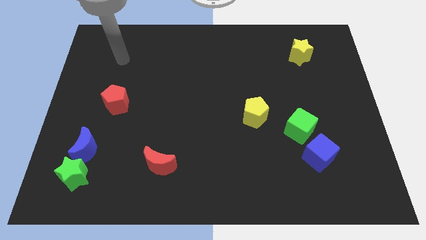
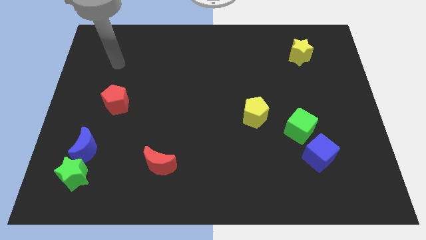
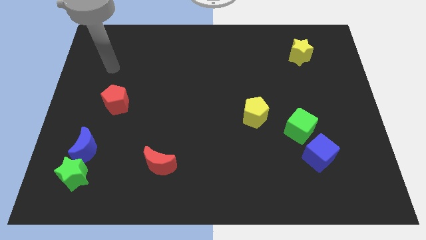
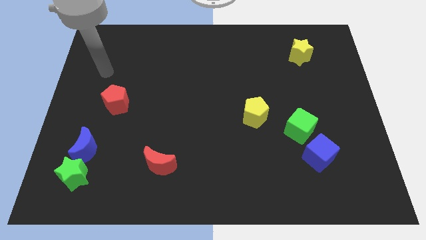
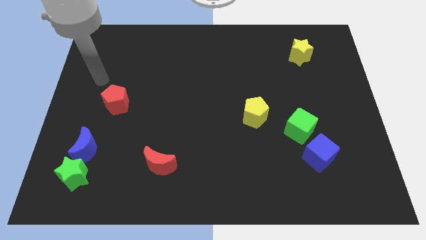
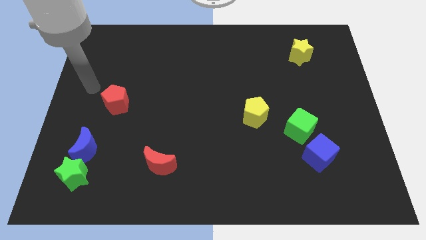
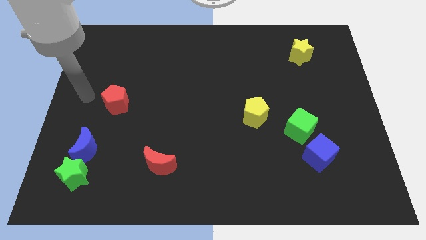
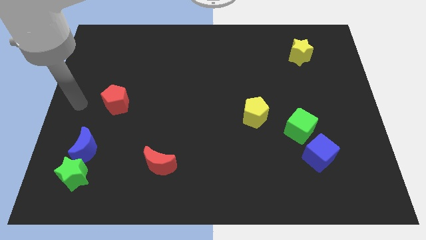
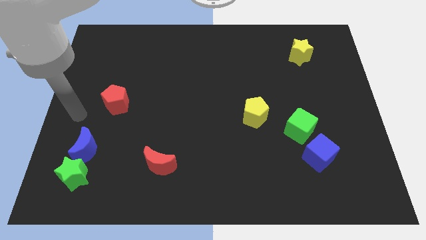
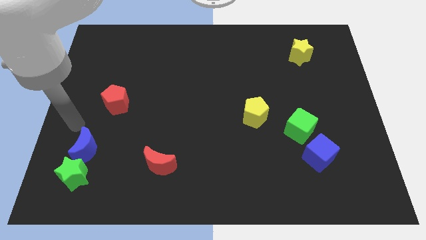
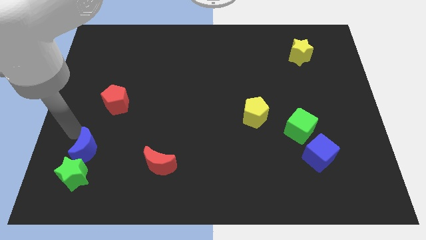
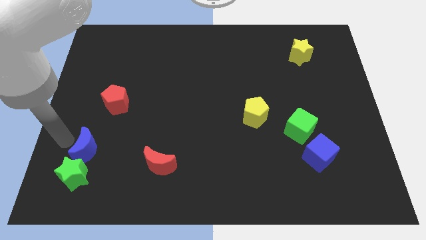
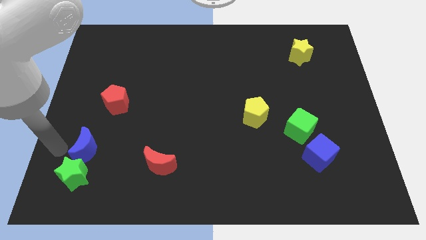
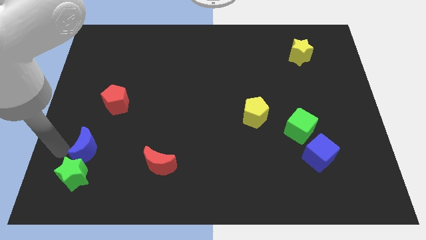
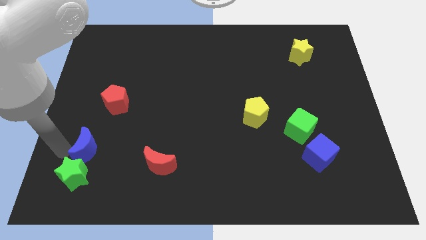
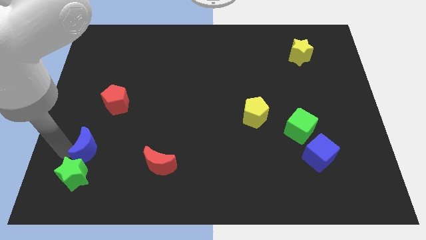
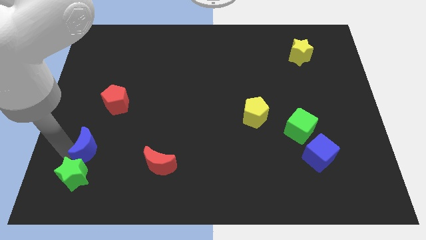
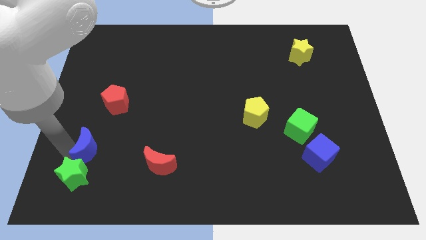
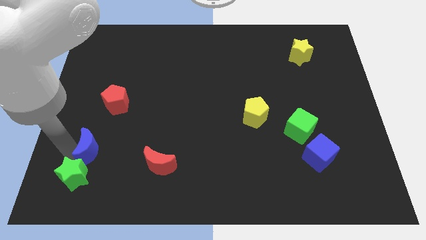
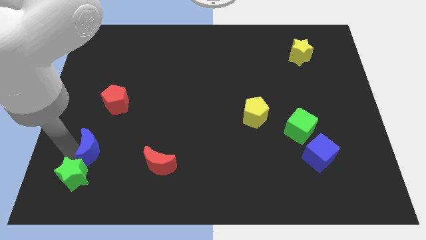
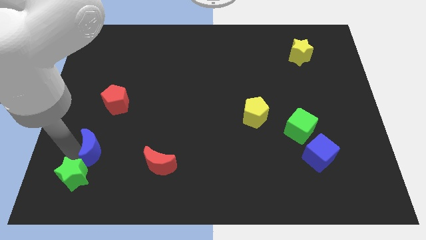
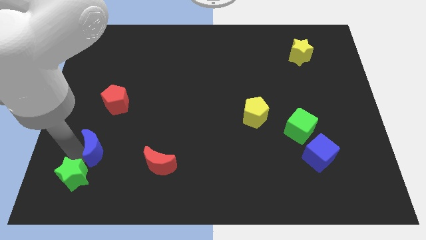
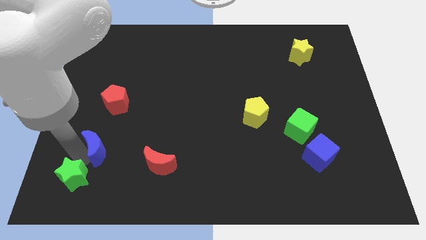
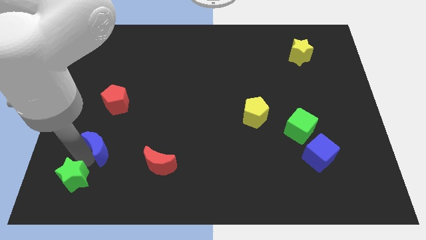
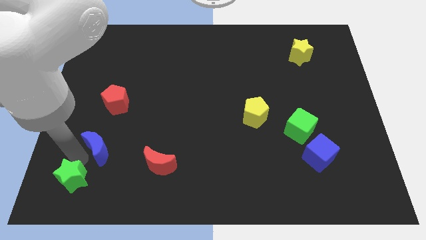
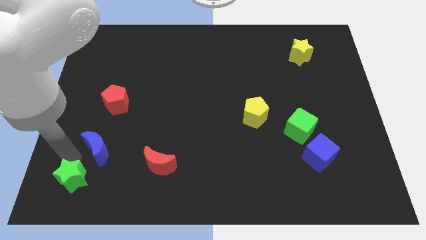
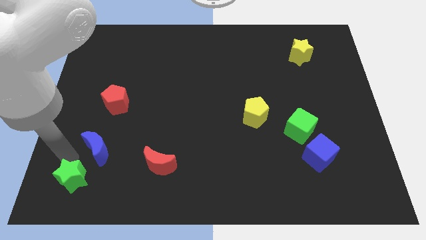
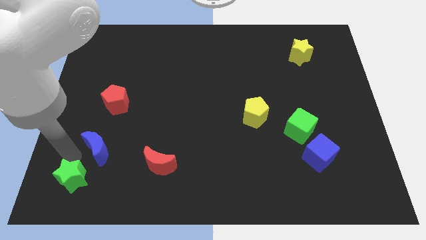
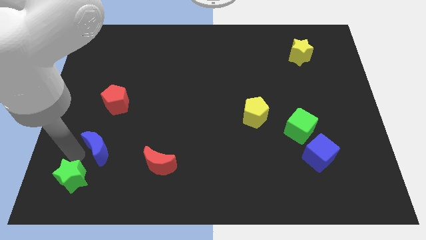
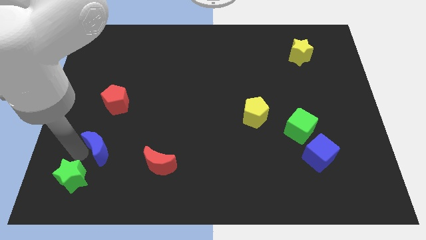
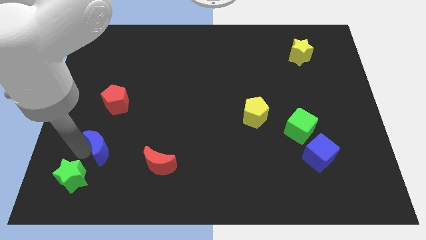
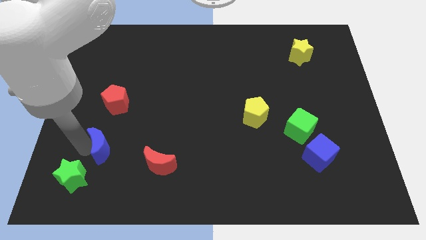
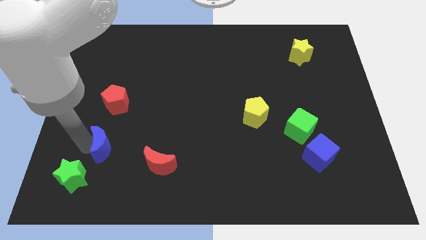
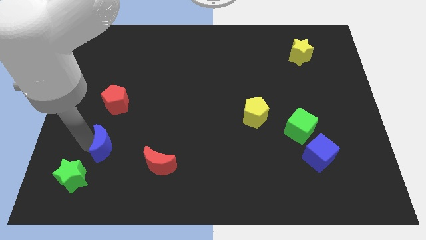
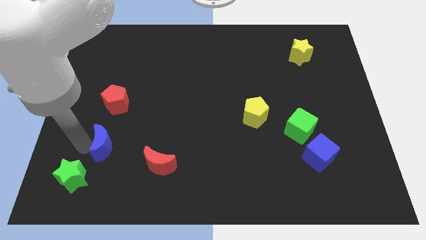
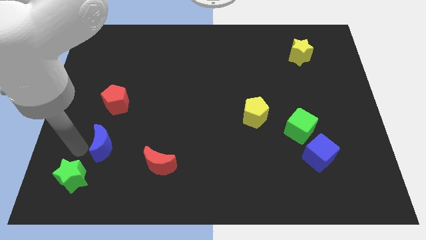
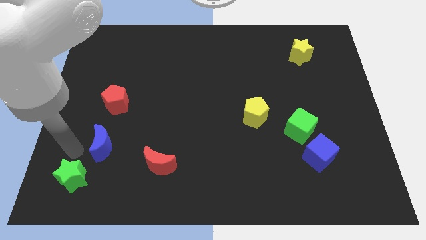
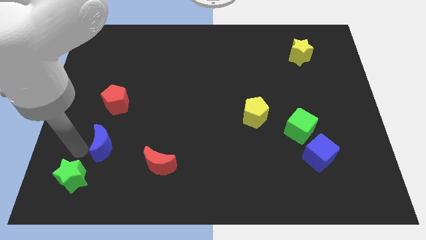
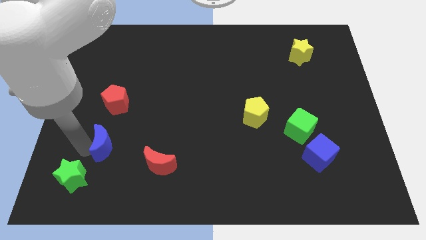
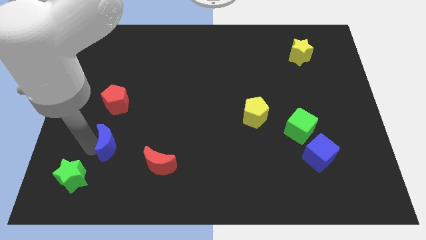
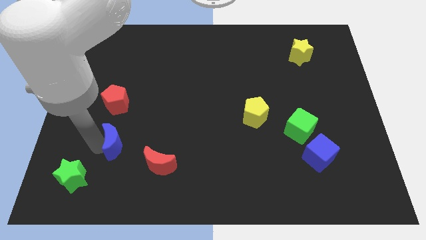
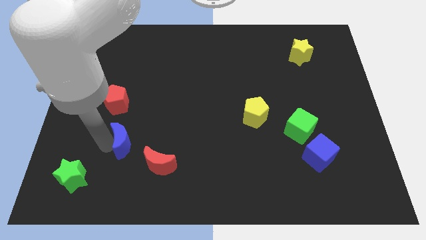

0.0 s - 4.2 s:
move the blue moon to the right a bit

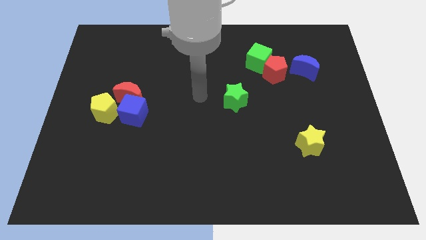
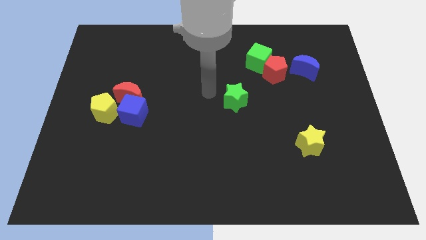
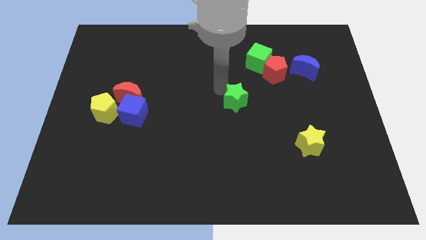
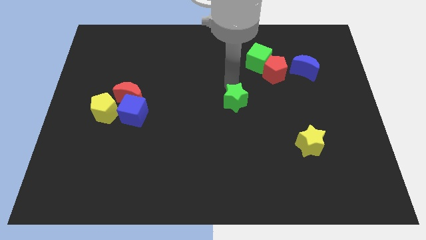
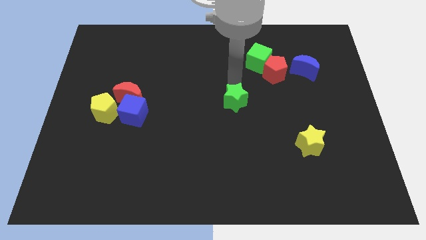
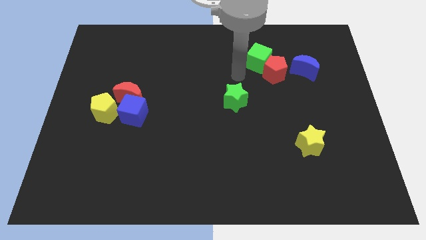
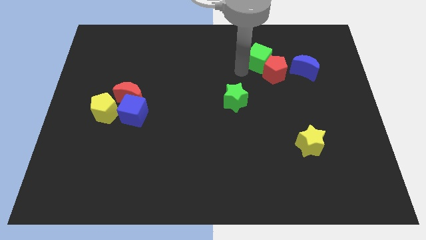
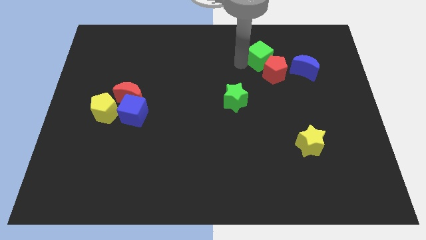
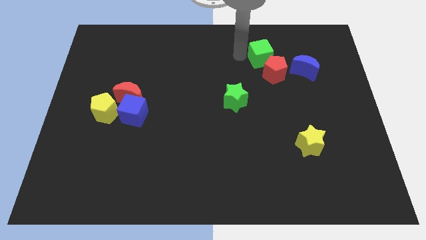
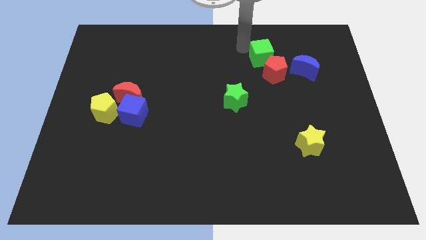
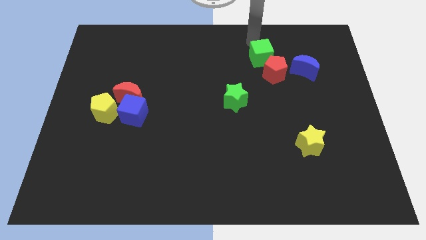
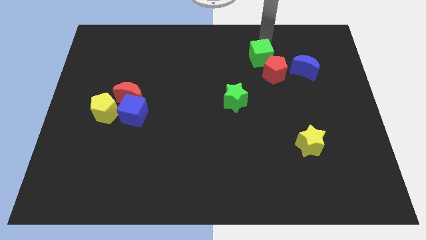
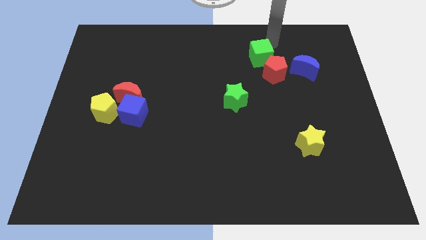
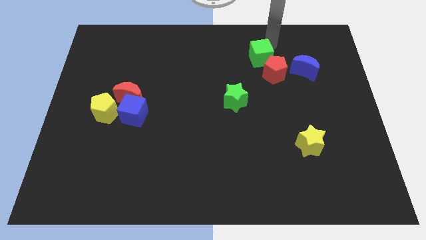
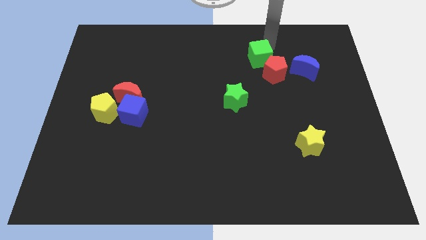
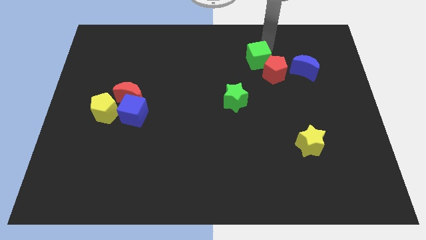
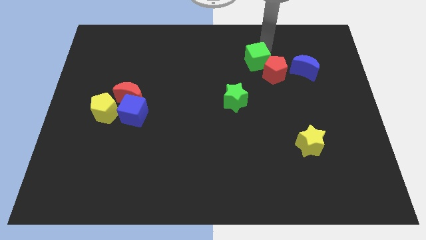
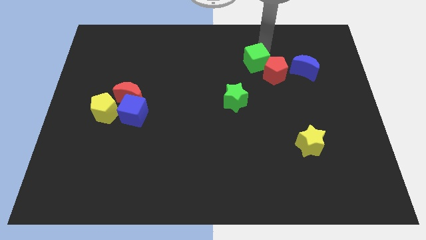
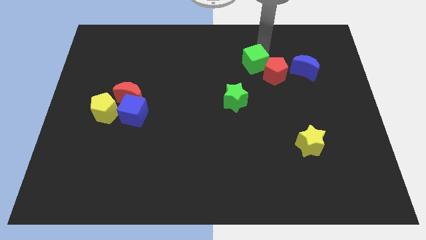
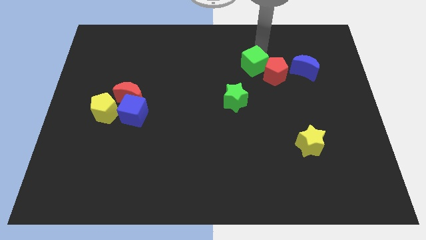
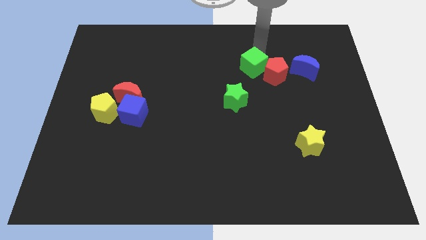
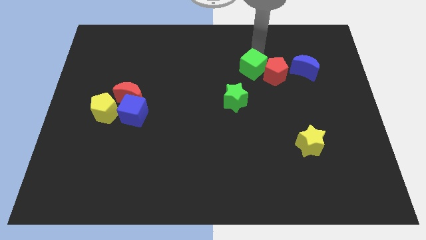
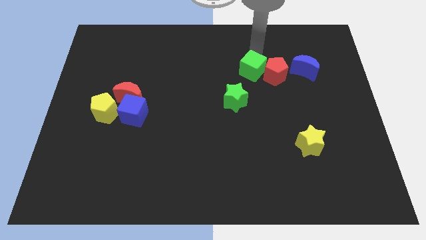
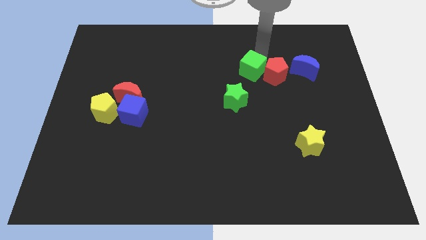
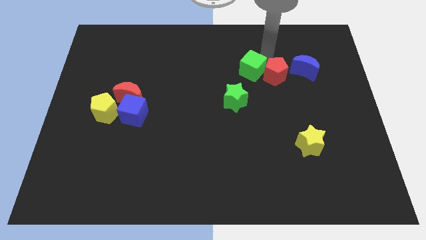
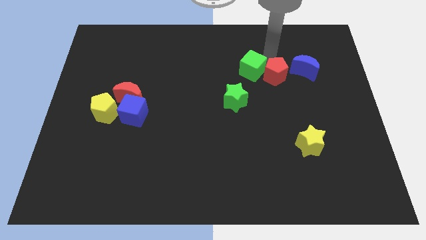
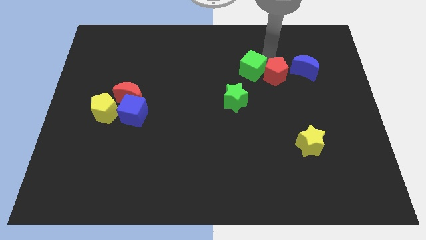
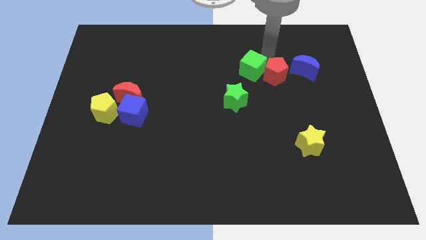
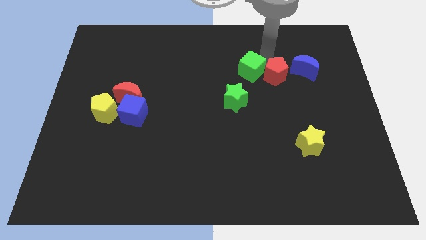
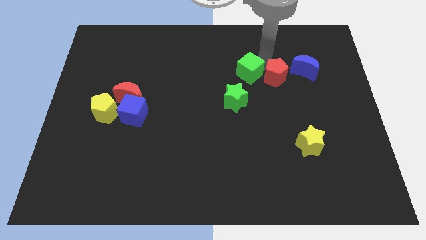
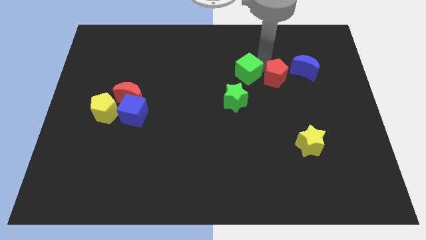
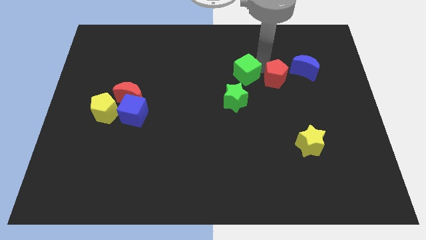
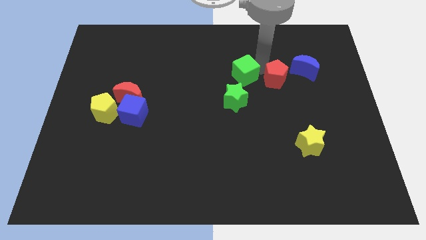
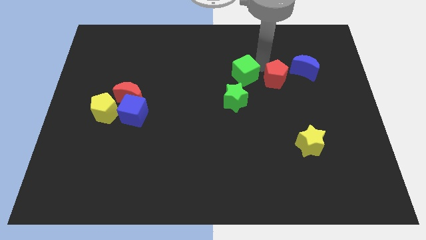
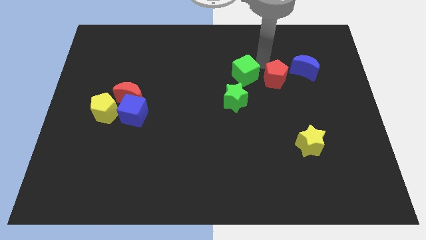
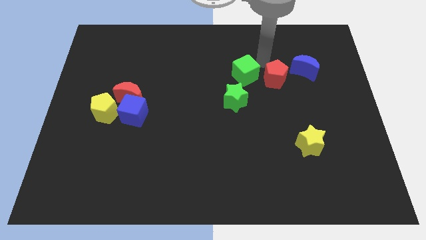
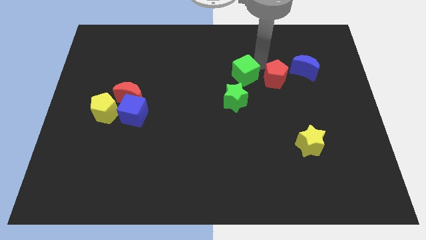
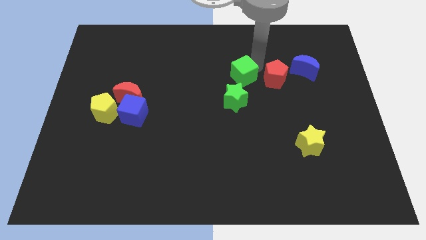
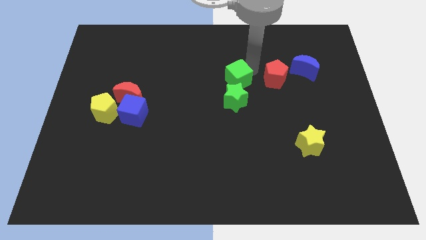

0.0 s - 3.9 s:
slightly move the green cube diagonally downwards and left
